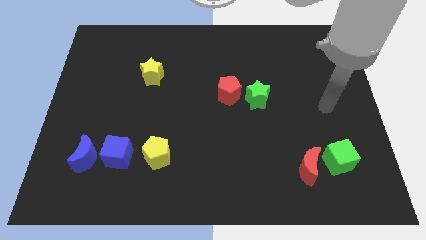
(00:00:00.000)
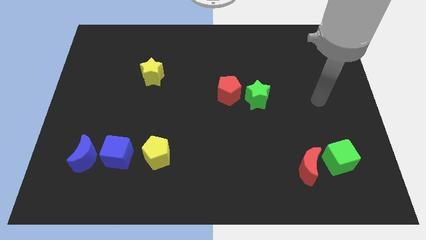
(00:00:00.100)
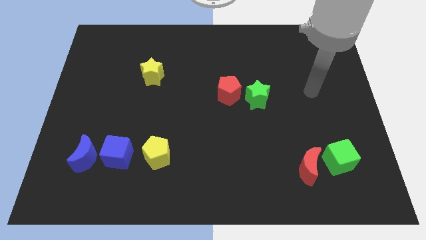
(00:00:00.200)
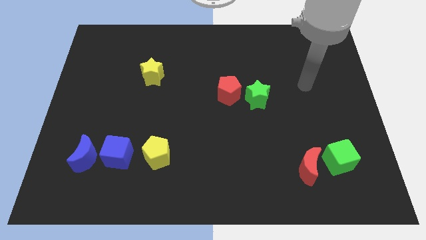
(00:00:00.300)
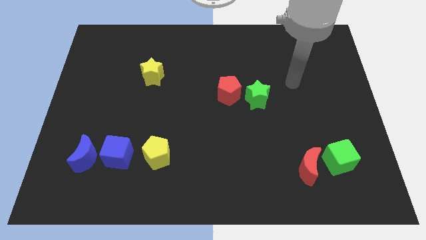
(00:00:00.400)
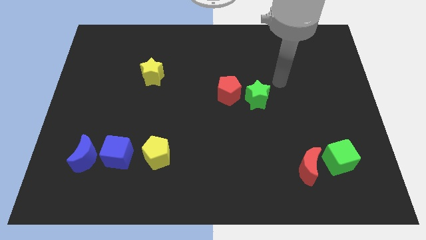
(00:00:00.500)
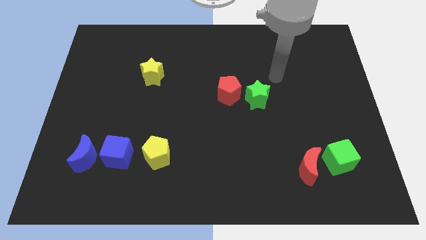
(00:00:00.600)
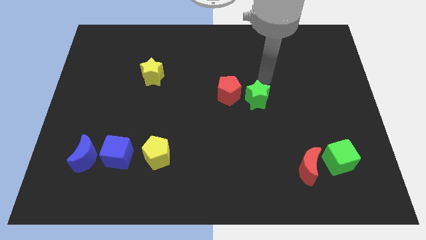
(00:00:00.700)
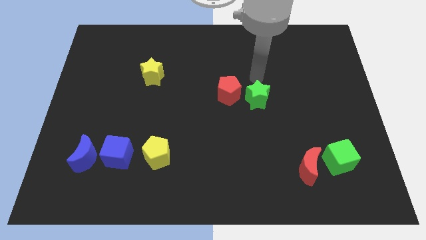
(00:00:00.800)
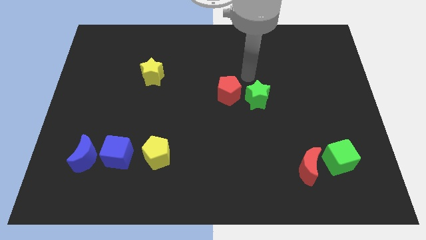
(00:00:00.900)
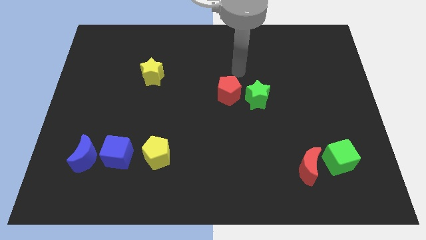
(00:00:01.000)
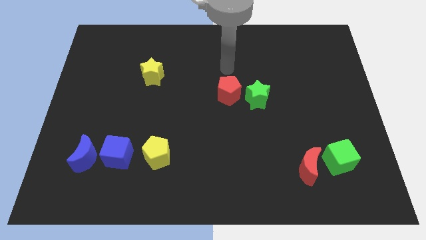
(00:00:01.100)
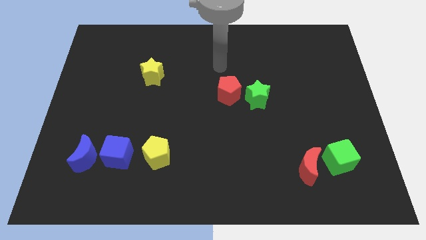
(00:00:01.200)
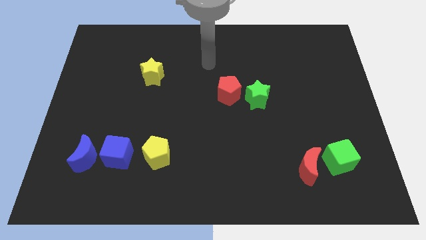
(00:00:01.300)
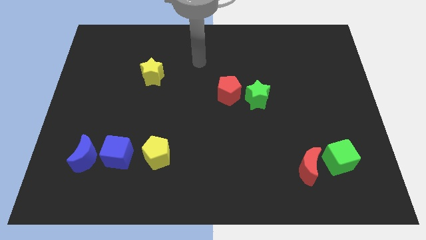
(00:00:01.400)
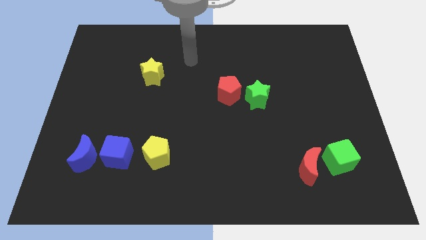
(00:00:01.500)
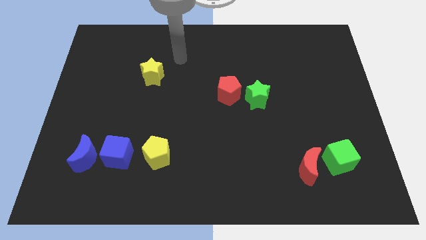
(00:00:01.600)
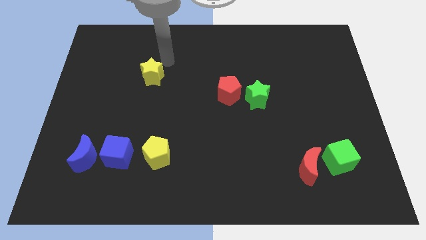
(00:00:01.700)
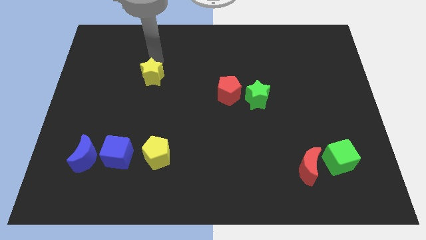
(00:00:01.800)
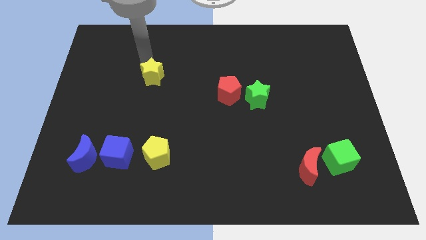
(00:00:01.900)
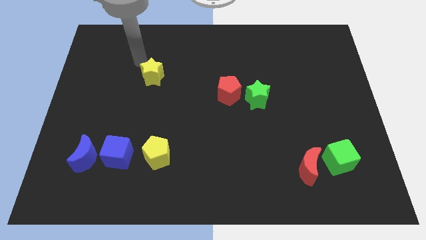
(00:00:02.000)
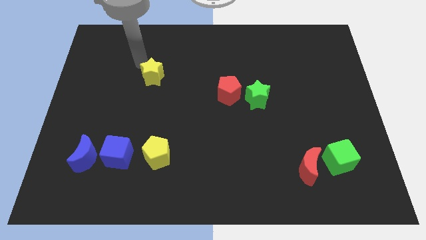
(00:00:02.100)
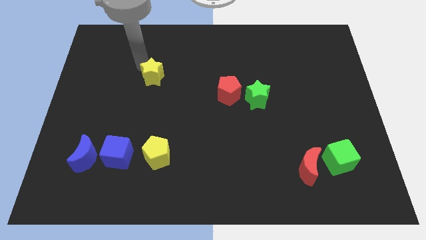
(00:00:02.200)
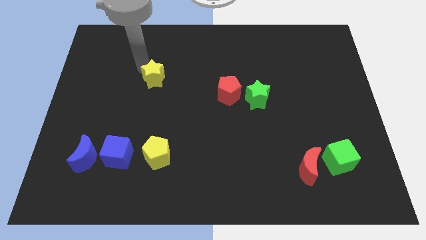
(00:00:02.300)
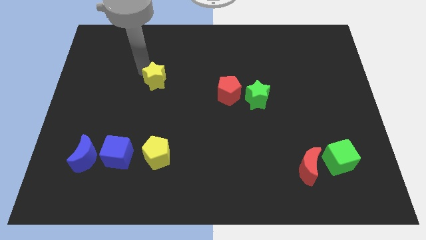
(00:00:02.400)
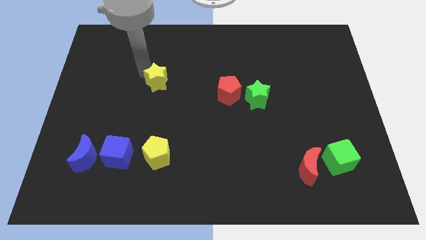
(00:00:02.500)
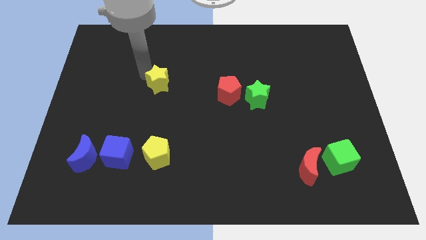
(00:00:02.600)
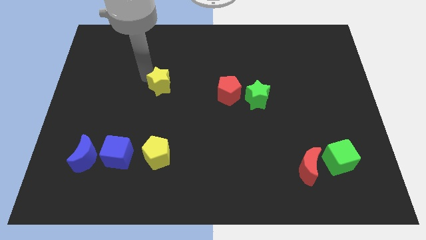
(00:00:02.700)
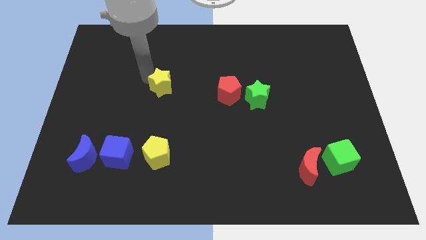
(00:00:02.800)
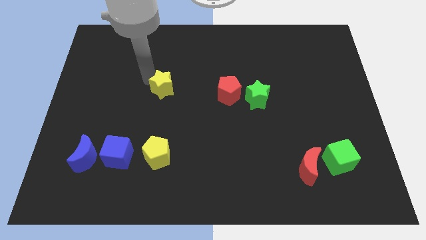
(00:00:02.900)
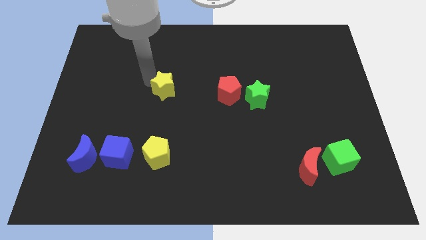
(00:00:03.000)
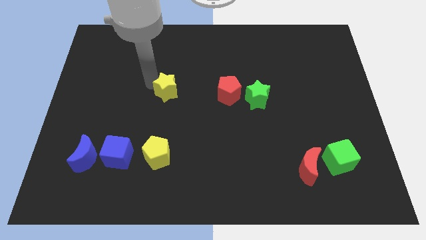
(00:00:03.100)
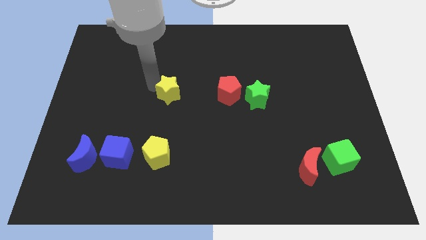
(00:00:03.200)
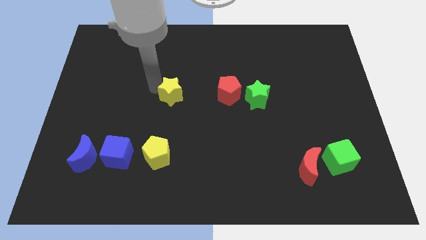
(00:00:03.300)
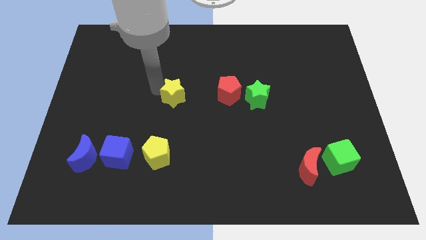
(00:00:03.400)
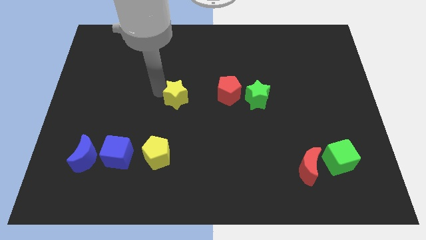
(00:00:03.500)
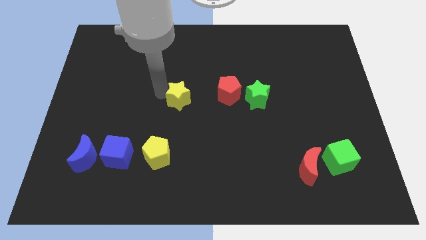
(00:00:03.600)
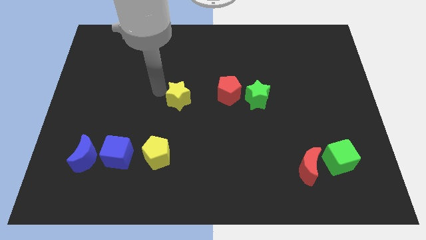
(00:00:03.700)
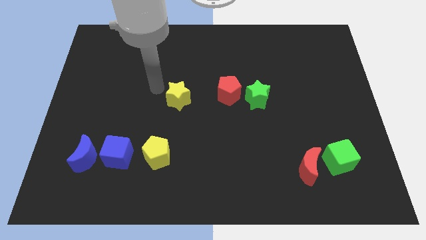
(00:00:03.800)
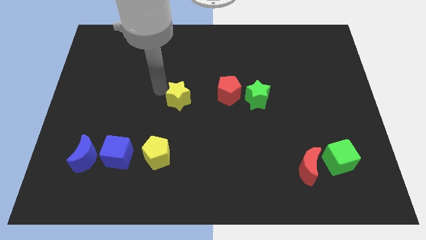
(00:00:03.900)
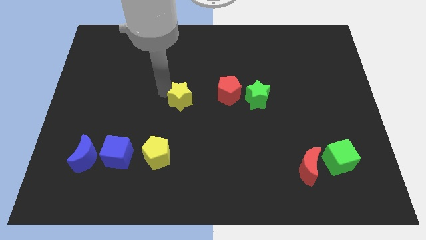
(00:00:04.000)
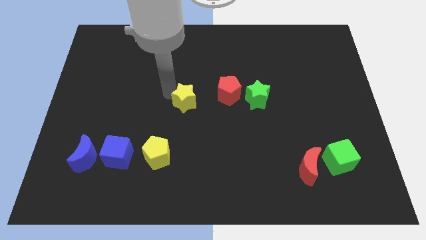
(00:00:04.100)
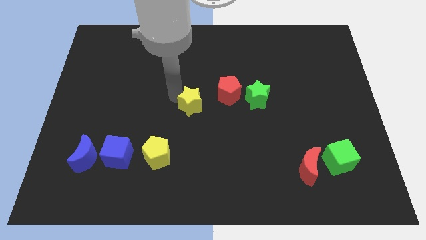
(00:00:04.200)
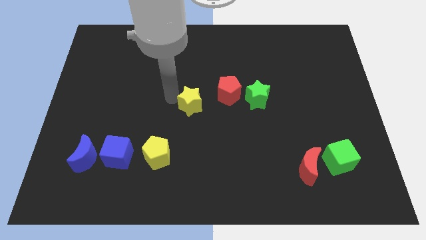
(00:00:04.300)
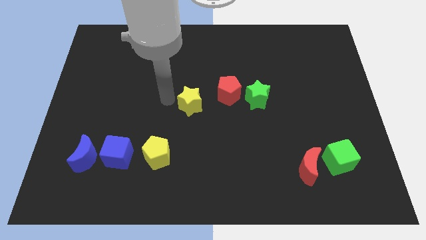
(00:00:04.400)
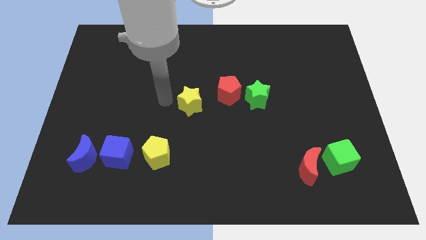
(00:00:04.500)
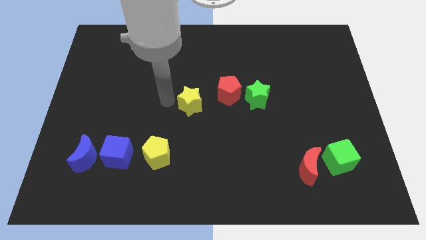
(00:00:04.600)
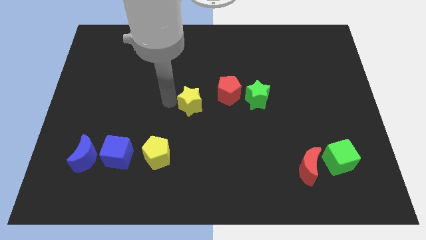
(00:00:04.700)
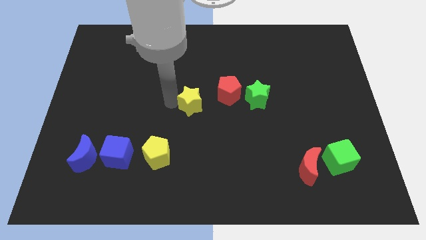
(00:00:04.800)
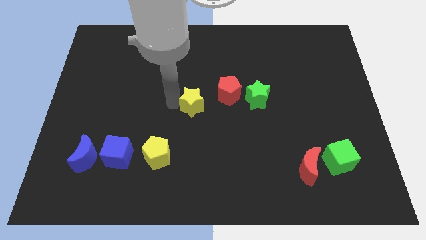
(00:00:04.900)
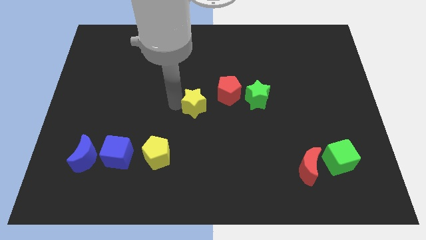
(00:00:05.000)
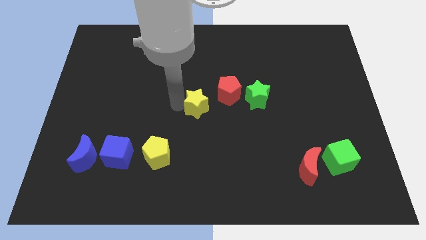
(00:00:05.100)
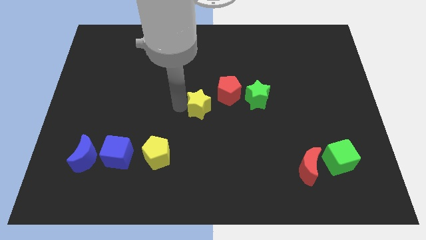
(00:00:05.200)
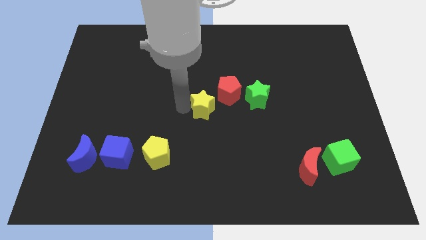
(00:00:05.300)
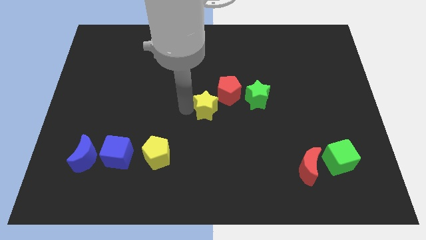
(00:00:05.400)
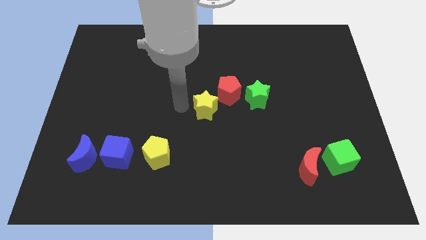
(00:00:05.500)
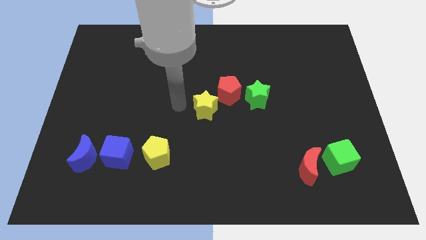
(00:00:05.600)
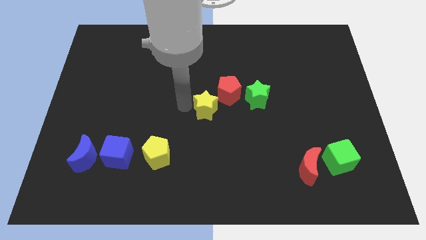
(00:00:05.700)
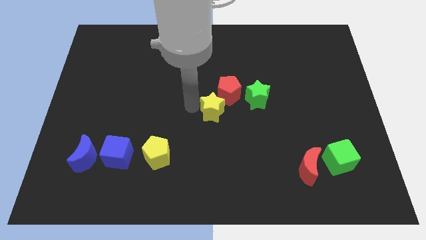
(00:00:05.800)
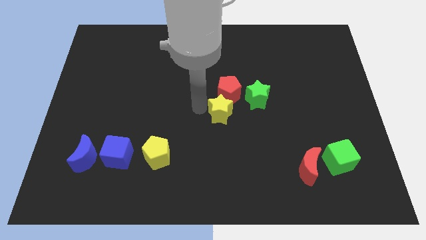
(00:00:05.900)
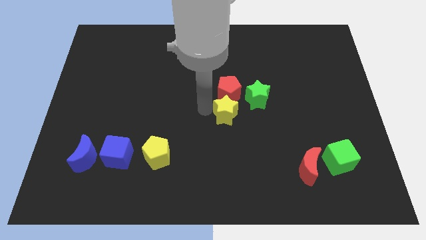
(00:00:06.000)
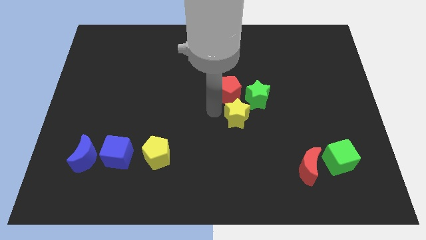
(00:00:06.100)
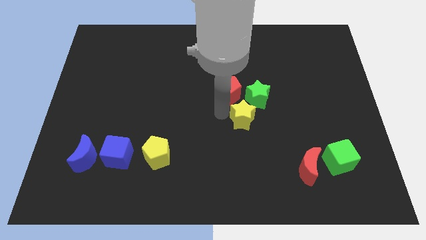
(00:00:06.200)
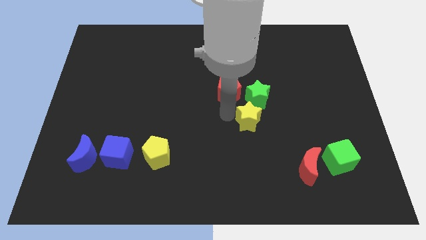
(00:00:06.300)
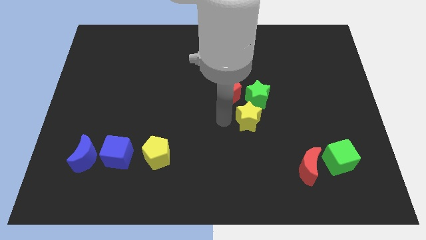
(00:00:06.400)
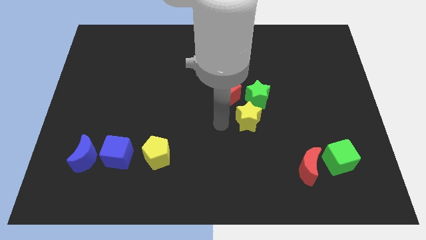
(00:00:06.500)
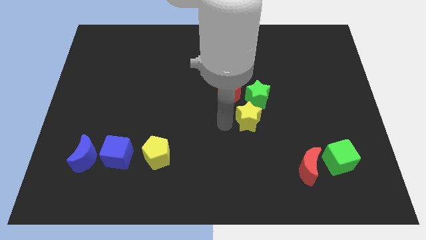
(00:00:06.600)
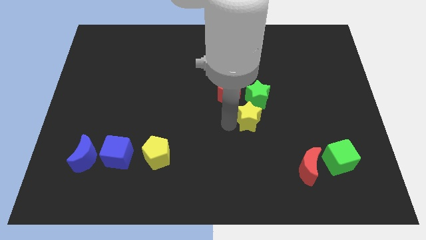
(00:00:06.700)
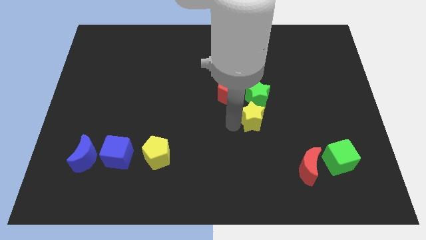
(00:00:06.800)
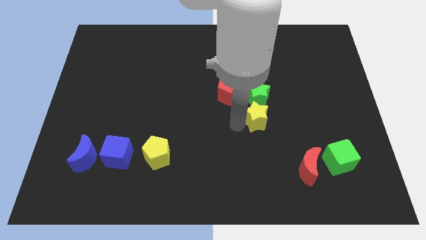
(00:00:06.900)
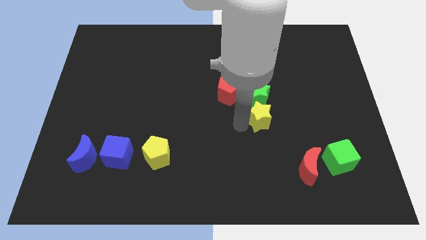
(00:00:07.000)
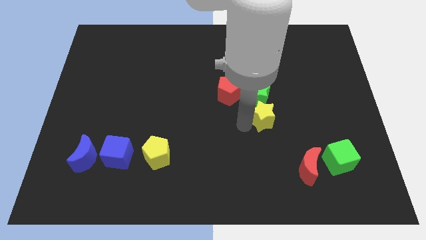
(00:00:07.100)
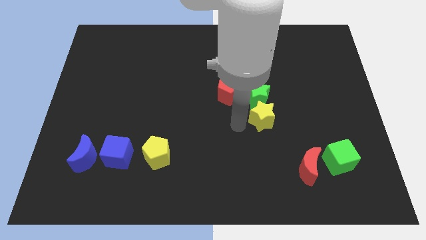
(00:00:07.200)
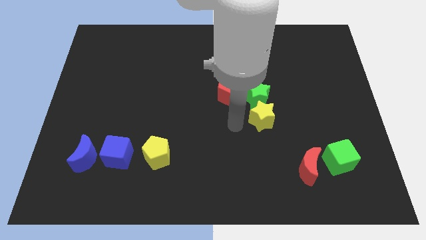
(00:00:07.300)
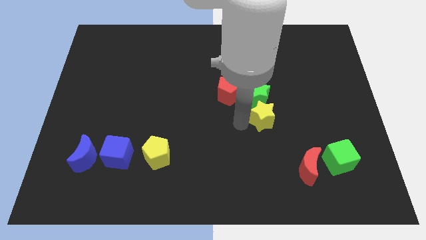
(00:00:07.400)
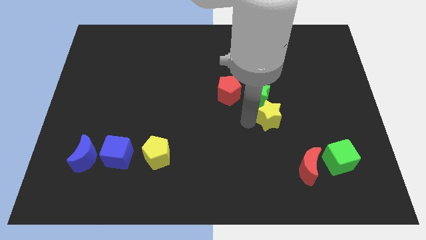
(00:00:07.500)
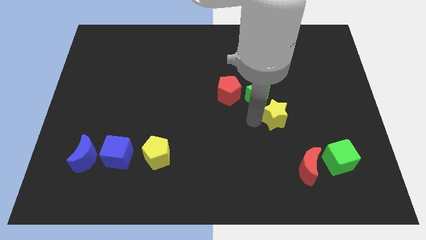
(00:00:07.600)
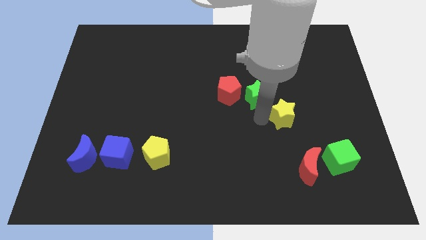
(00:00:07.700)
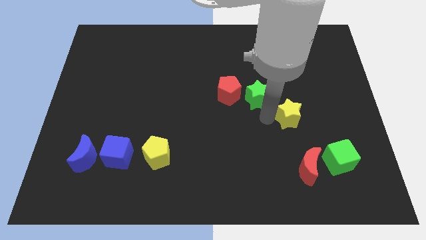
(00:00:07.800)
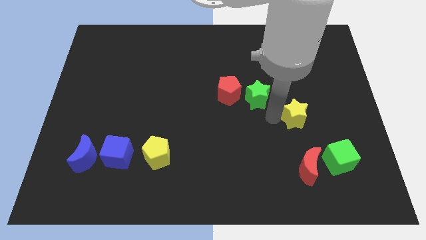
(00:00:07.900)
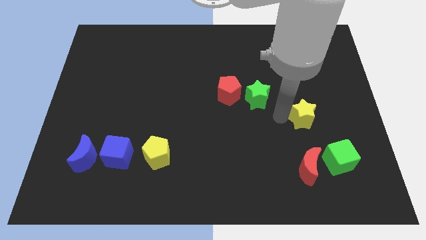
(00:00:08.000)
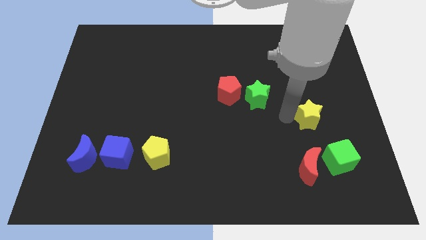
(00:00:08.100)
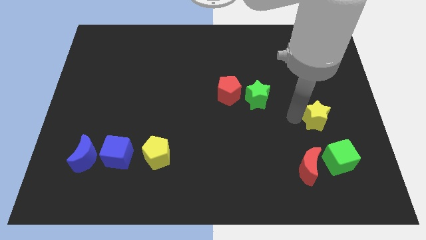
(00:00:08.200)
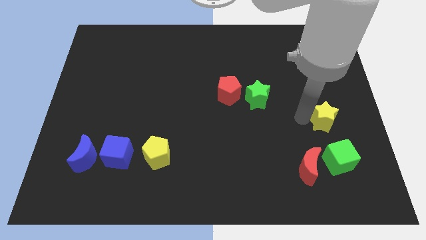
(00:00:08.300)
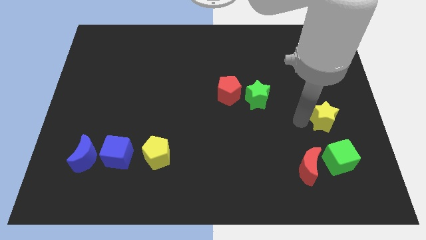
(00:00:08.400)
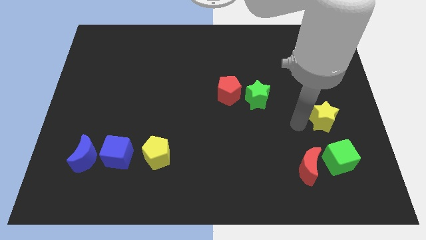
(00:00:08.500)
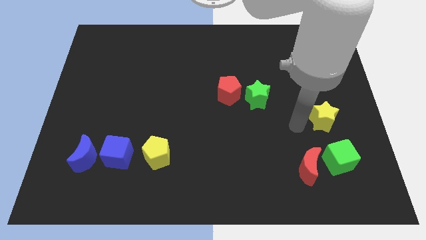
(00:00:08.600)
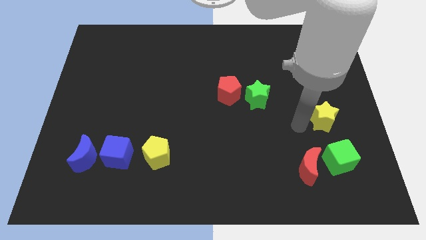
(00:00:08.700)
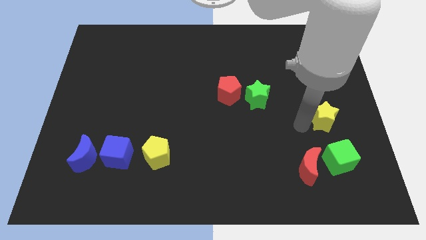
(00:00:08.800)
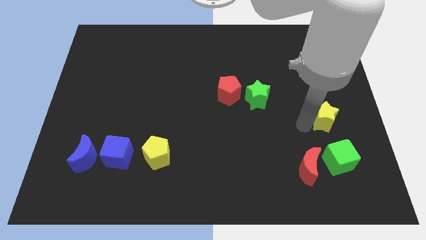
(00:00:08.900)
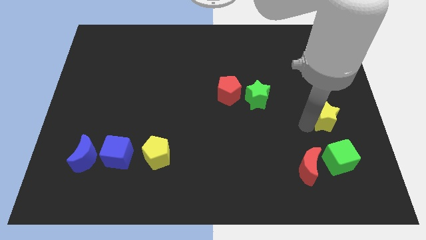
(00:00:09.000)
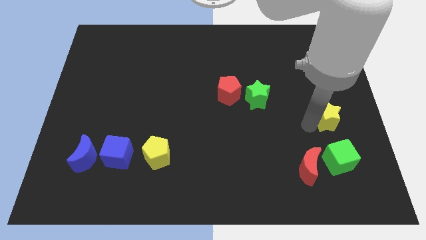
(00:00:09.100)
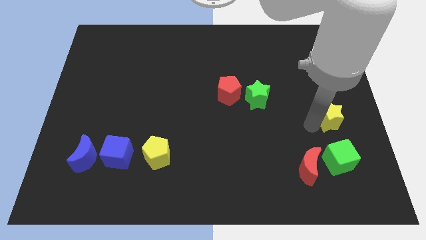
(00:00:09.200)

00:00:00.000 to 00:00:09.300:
slide the yellow star to the center right
